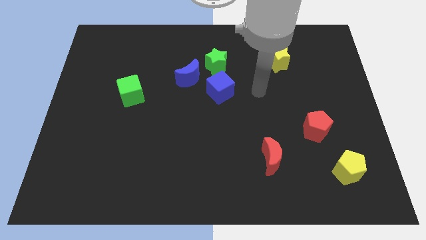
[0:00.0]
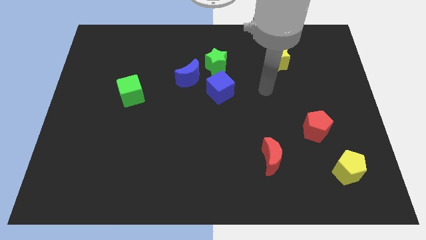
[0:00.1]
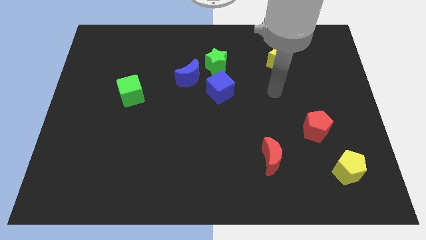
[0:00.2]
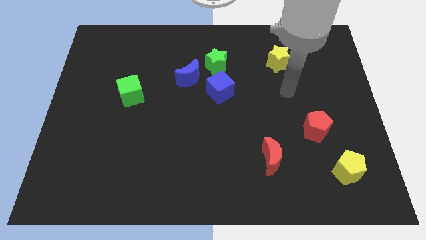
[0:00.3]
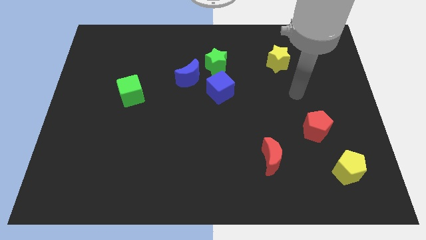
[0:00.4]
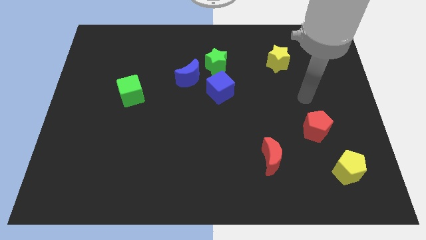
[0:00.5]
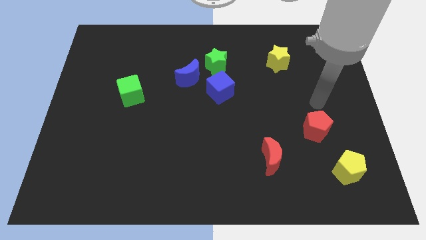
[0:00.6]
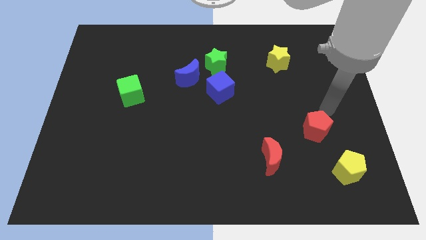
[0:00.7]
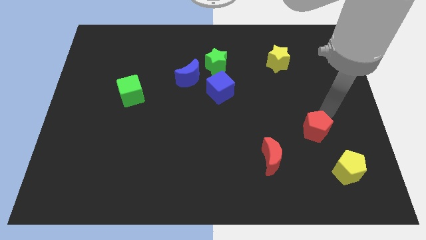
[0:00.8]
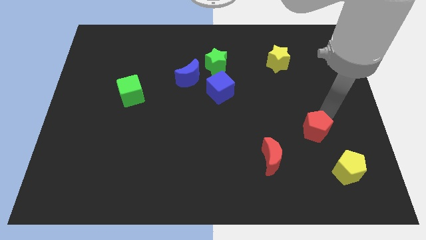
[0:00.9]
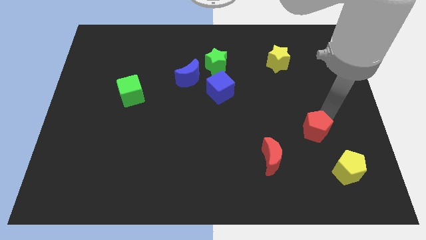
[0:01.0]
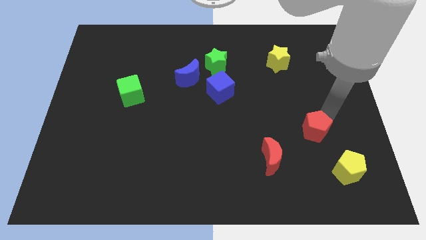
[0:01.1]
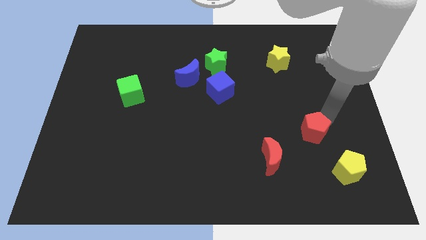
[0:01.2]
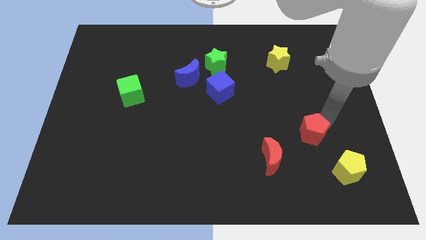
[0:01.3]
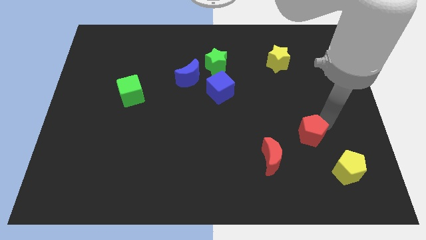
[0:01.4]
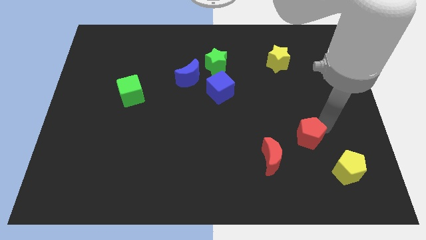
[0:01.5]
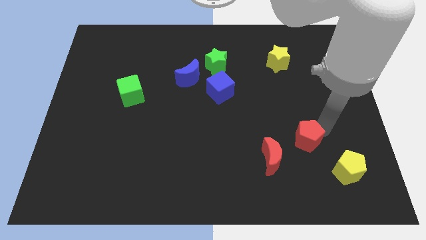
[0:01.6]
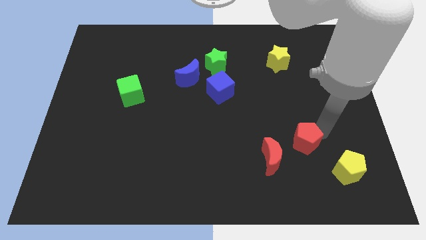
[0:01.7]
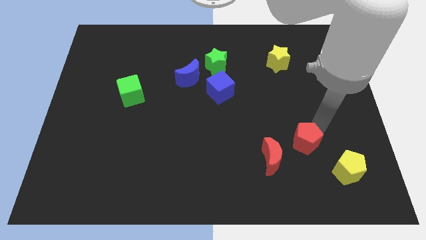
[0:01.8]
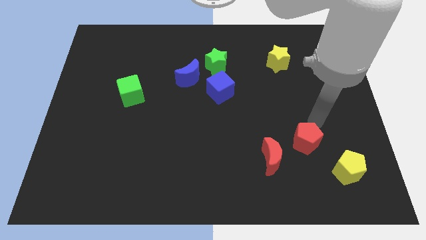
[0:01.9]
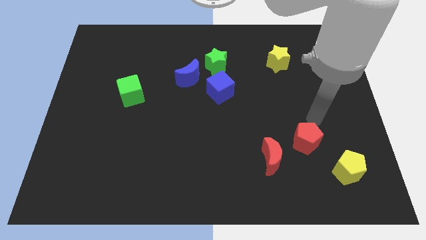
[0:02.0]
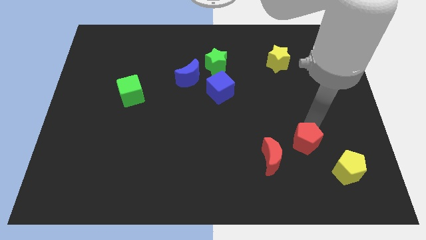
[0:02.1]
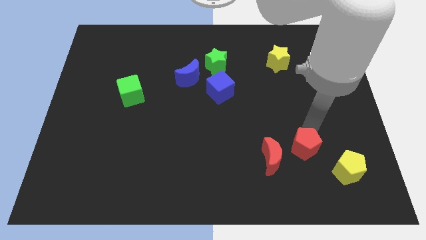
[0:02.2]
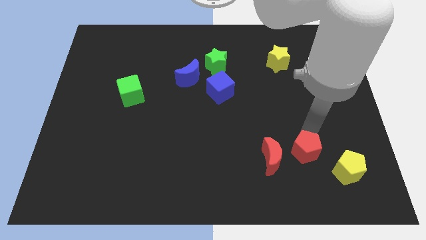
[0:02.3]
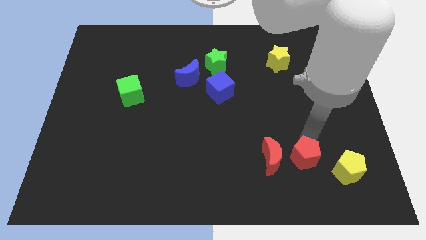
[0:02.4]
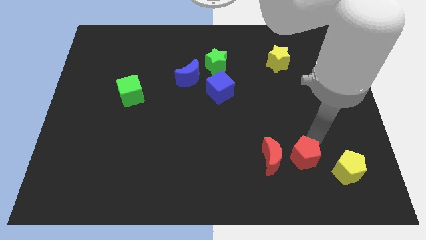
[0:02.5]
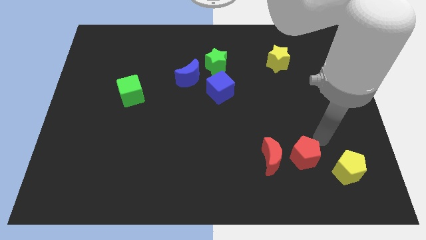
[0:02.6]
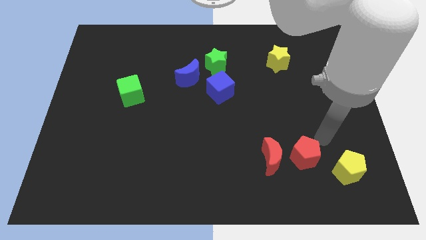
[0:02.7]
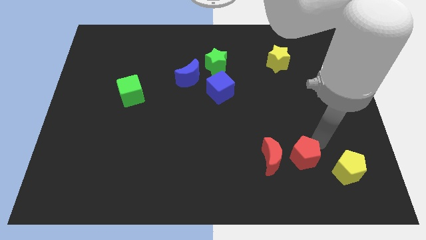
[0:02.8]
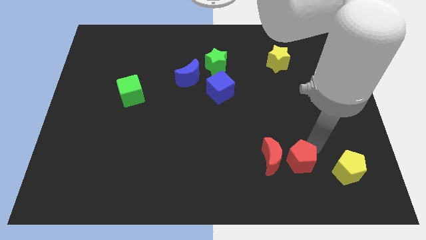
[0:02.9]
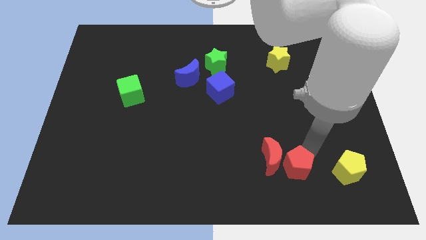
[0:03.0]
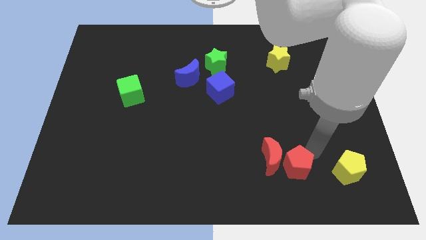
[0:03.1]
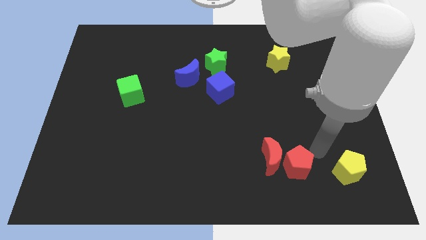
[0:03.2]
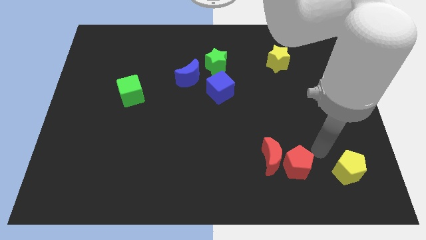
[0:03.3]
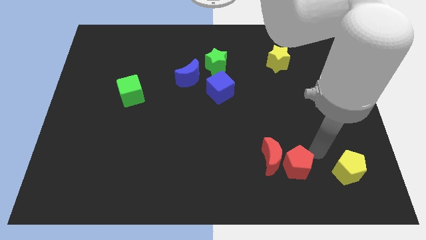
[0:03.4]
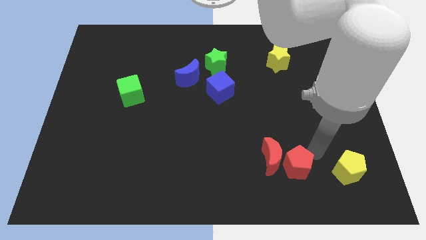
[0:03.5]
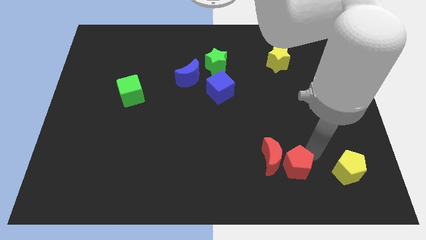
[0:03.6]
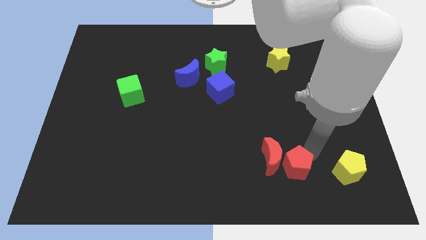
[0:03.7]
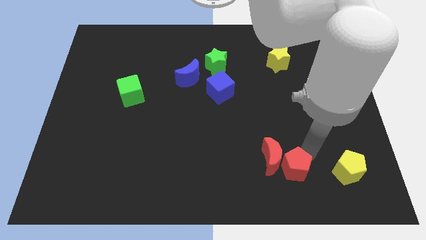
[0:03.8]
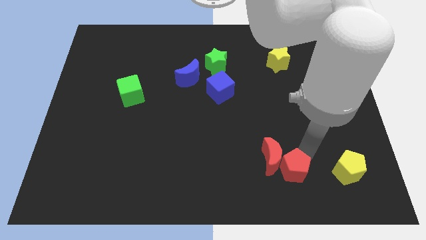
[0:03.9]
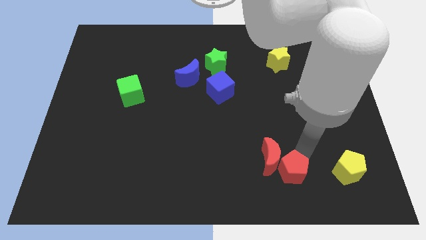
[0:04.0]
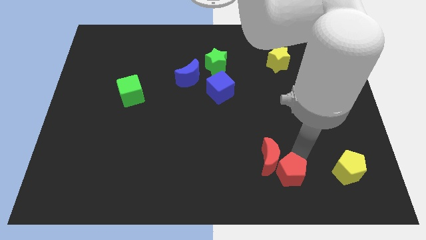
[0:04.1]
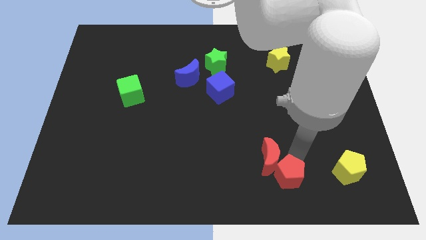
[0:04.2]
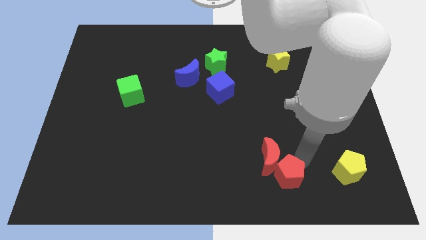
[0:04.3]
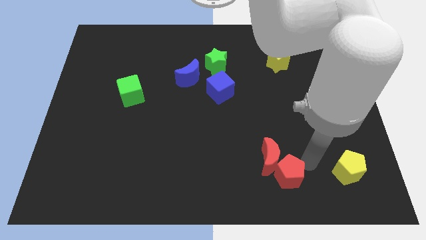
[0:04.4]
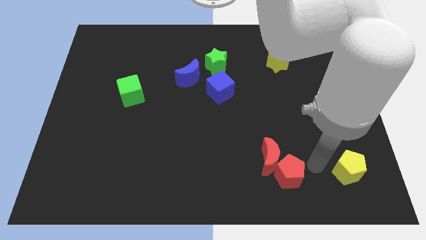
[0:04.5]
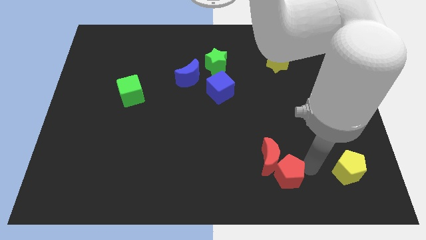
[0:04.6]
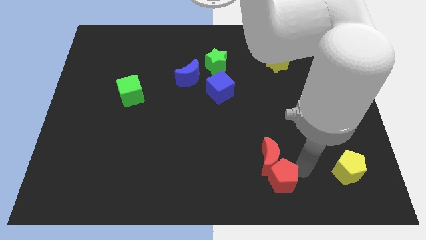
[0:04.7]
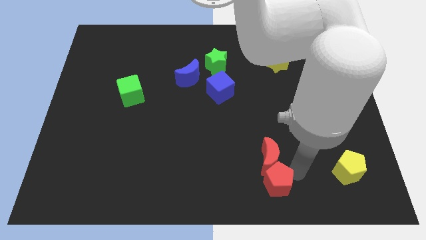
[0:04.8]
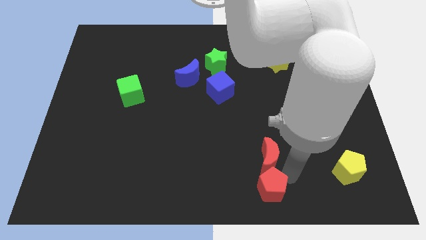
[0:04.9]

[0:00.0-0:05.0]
push the red pentagon to the bottom

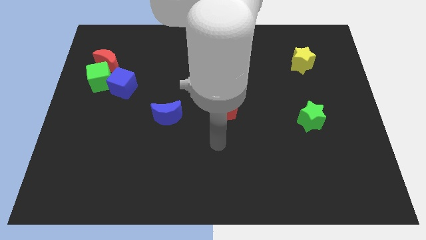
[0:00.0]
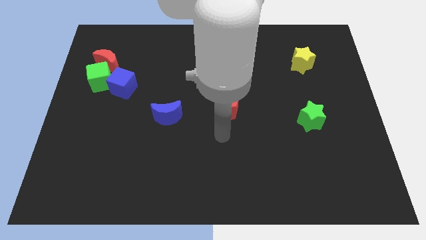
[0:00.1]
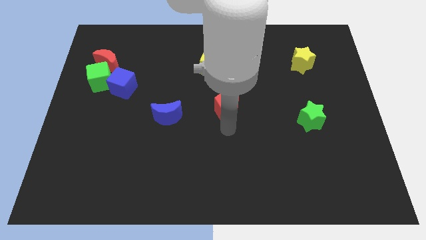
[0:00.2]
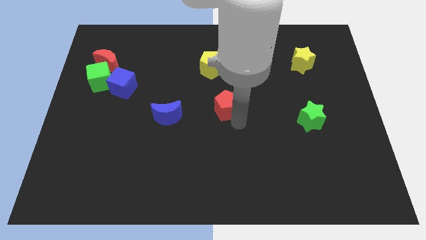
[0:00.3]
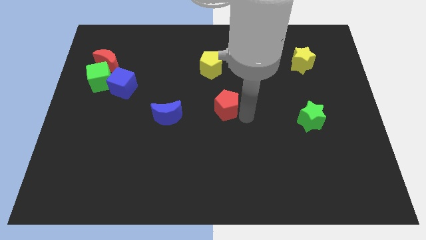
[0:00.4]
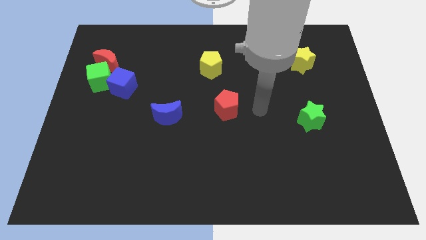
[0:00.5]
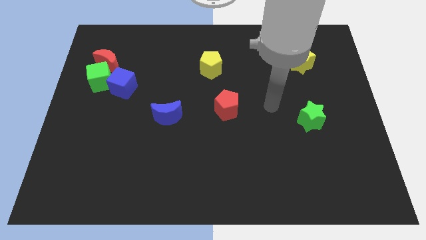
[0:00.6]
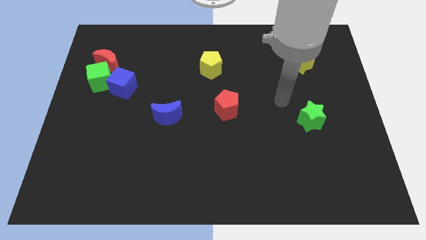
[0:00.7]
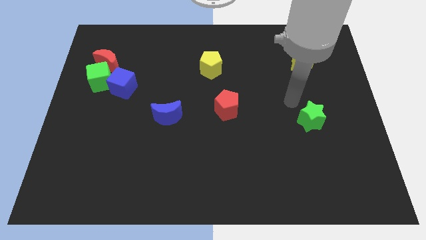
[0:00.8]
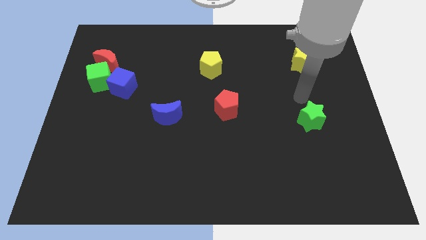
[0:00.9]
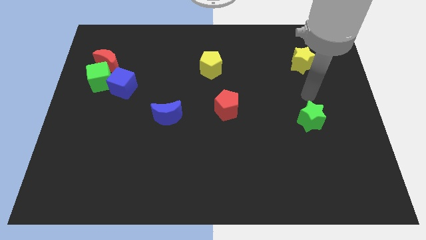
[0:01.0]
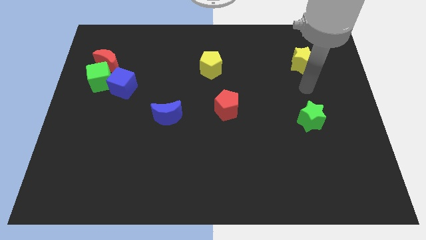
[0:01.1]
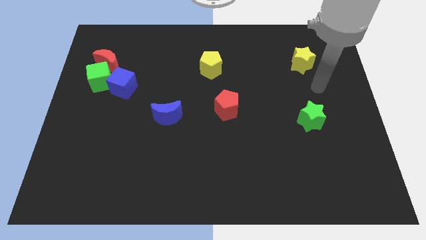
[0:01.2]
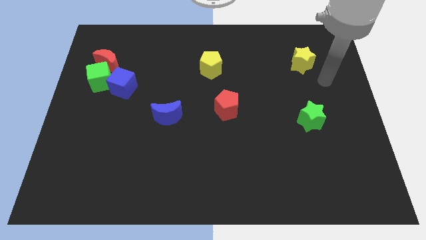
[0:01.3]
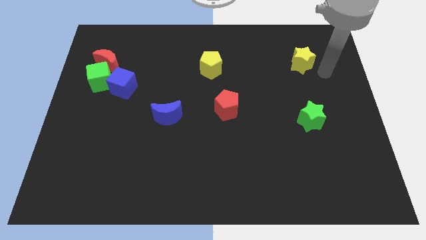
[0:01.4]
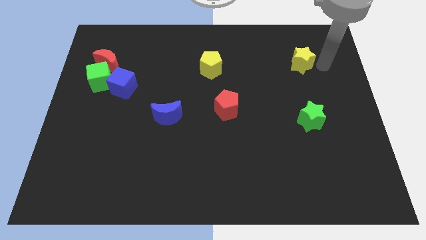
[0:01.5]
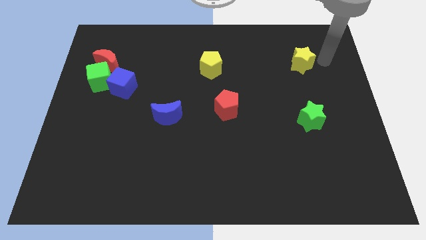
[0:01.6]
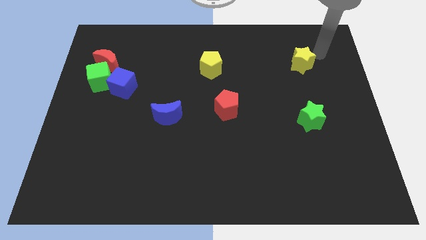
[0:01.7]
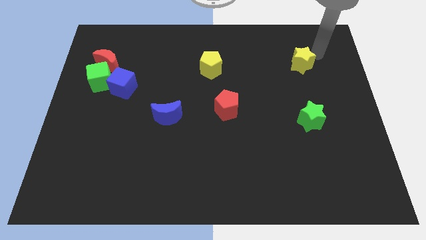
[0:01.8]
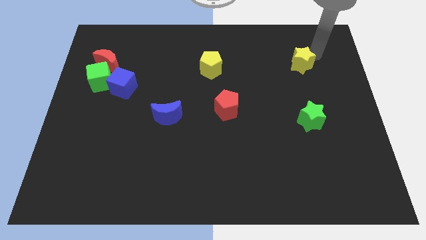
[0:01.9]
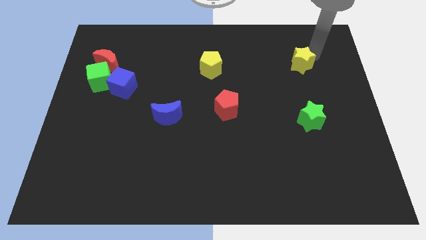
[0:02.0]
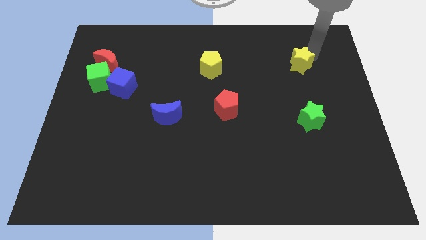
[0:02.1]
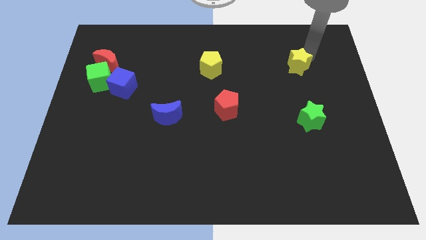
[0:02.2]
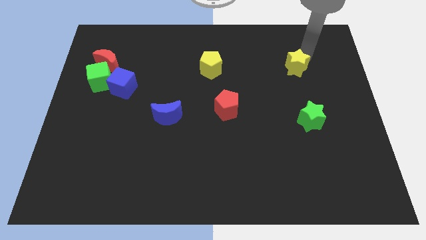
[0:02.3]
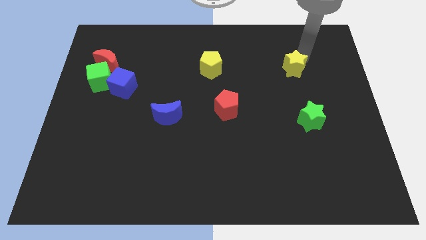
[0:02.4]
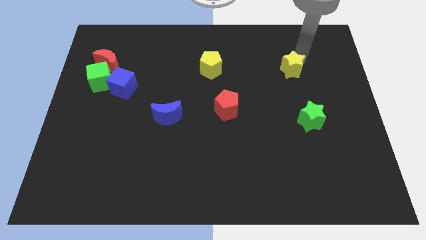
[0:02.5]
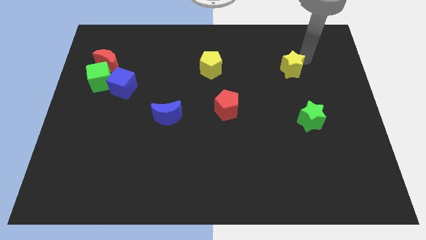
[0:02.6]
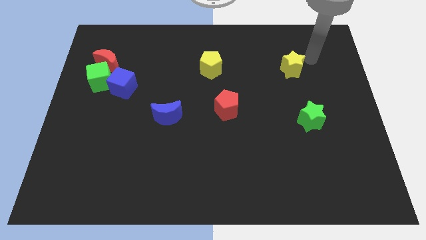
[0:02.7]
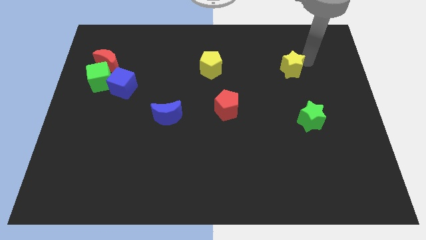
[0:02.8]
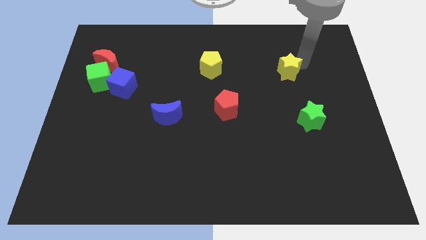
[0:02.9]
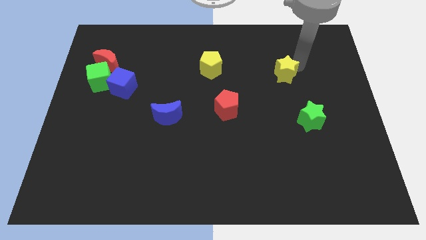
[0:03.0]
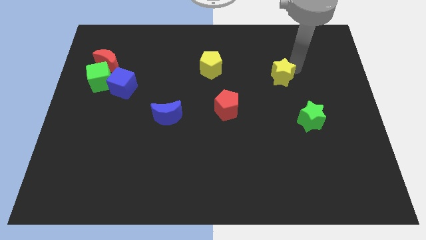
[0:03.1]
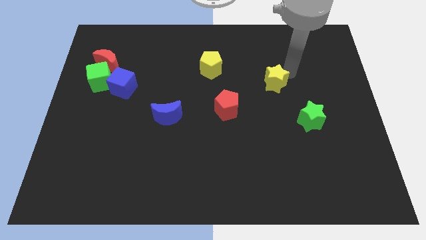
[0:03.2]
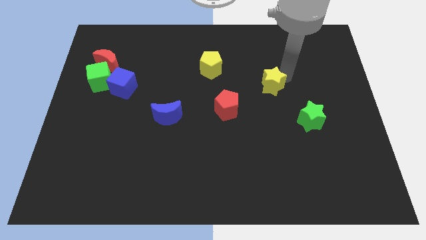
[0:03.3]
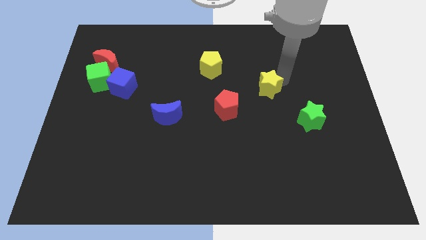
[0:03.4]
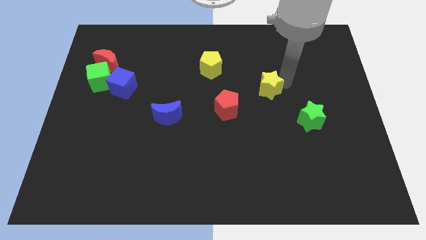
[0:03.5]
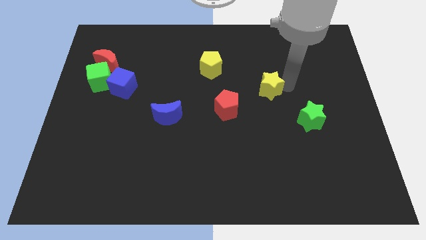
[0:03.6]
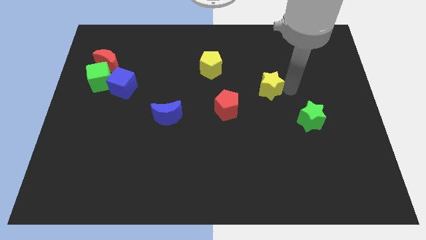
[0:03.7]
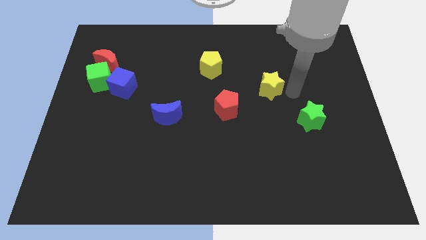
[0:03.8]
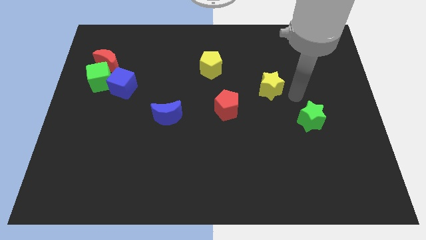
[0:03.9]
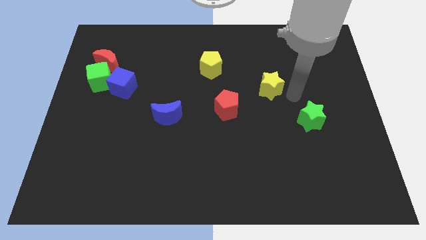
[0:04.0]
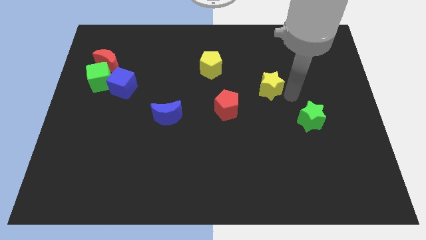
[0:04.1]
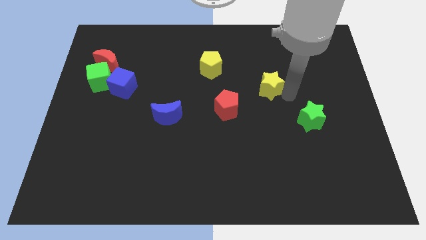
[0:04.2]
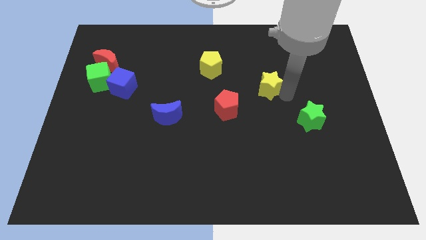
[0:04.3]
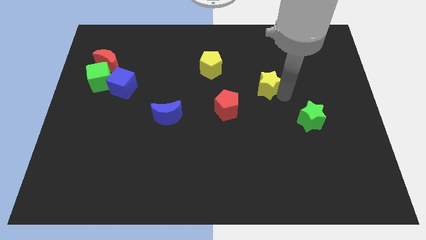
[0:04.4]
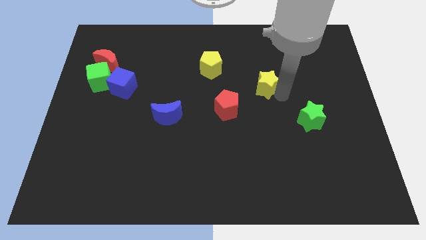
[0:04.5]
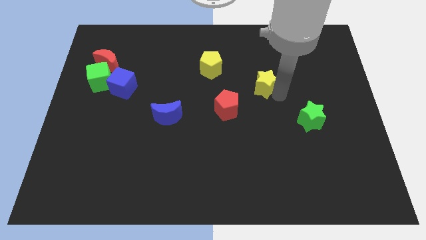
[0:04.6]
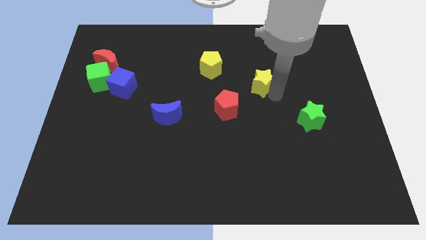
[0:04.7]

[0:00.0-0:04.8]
move the yellow star to the middle
